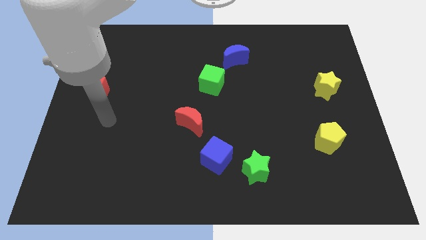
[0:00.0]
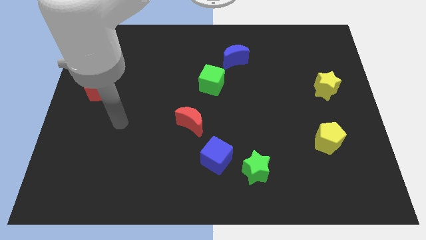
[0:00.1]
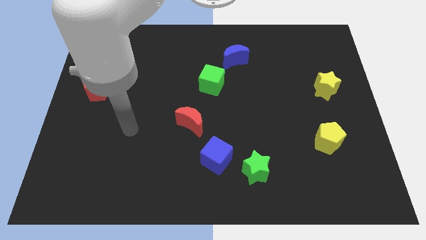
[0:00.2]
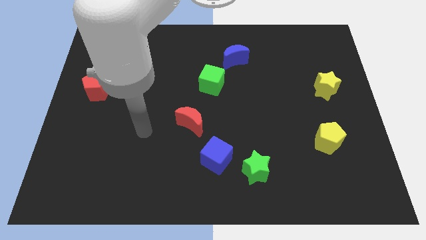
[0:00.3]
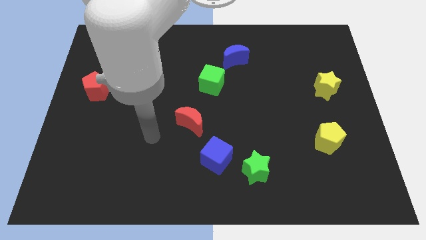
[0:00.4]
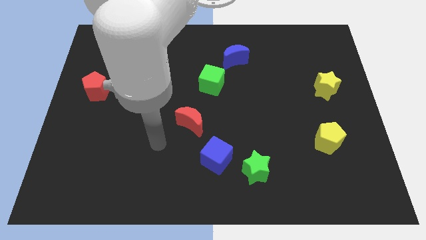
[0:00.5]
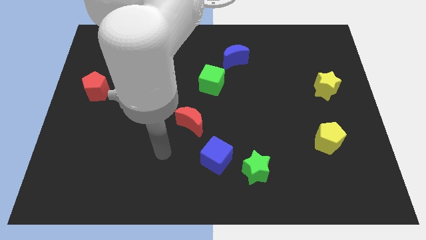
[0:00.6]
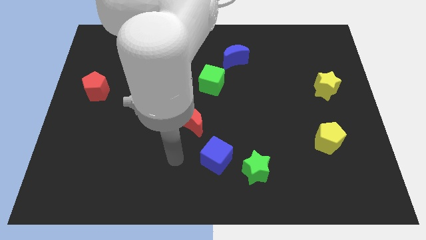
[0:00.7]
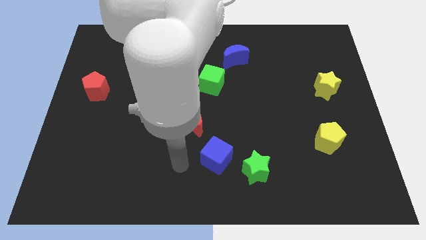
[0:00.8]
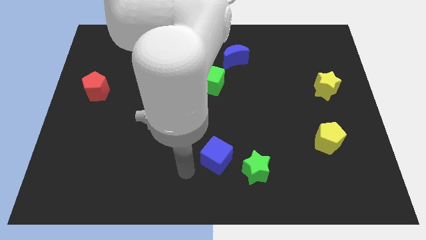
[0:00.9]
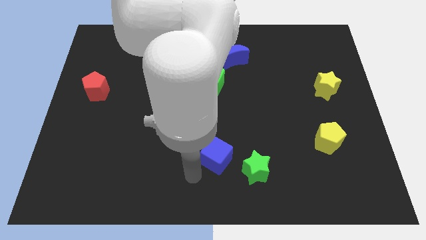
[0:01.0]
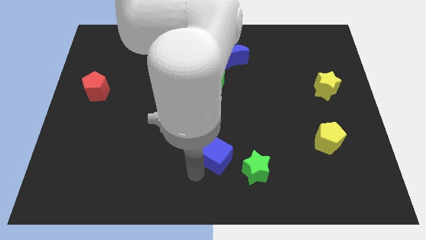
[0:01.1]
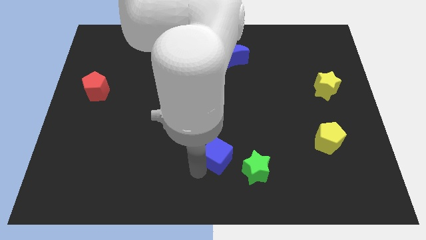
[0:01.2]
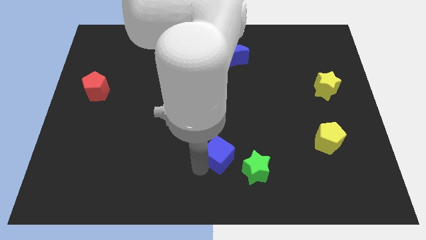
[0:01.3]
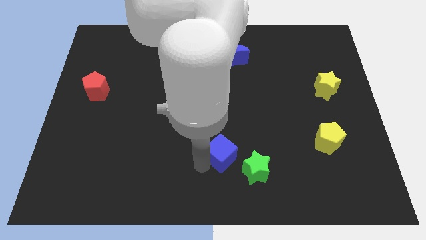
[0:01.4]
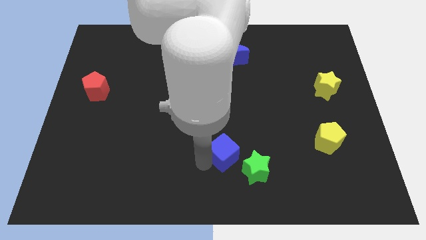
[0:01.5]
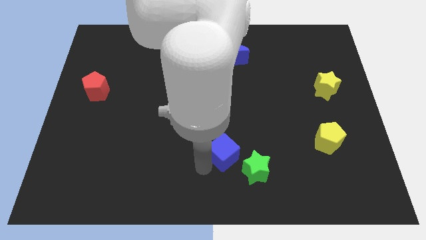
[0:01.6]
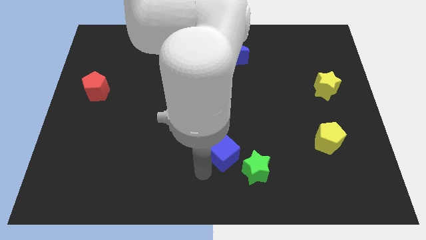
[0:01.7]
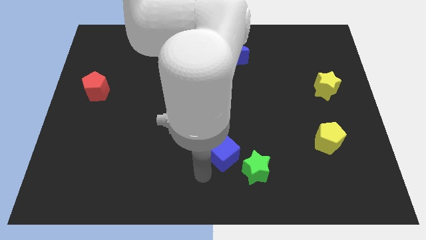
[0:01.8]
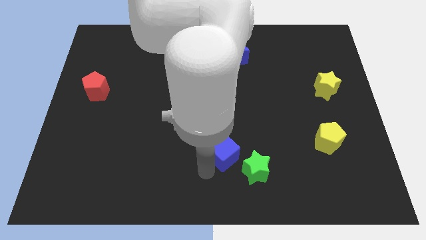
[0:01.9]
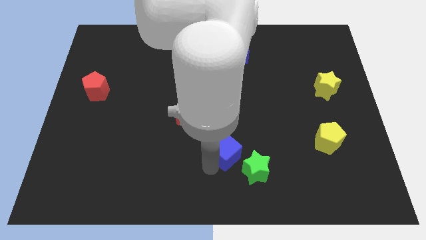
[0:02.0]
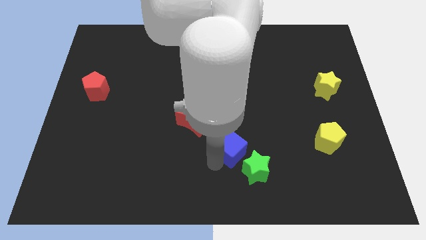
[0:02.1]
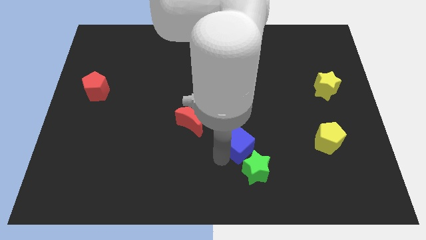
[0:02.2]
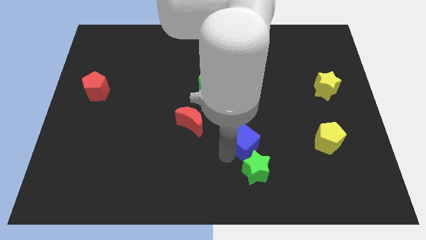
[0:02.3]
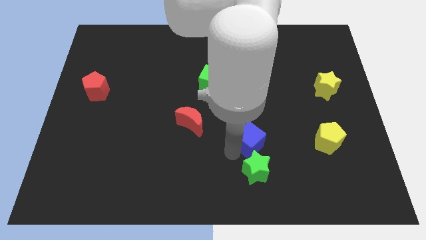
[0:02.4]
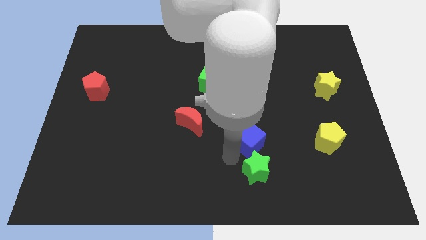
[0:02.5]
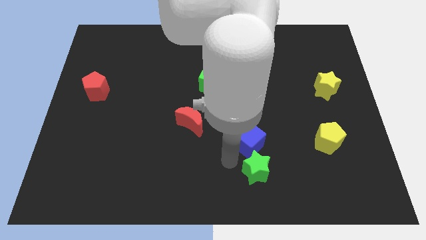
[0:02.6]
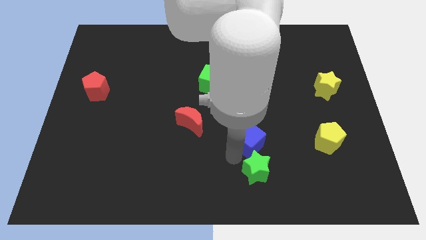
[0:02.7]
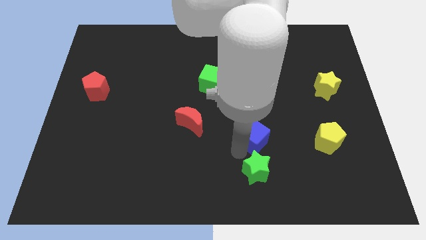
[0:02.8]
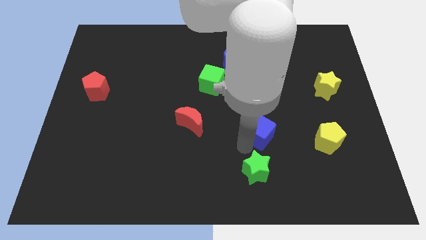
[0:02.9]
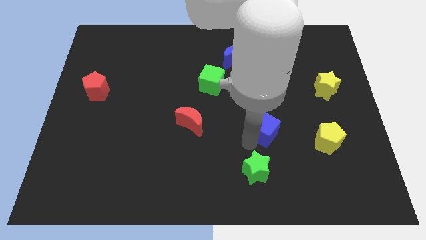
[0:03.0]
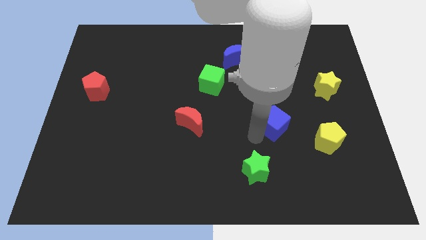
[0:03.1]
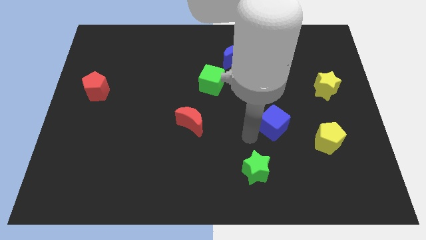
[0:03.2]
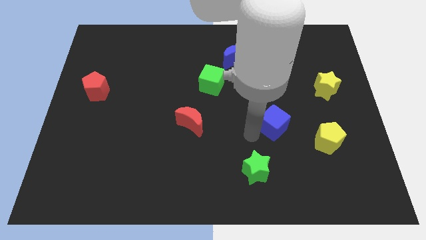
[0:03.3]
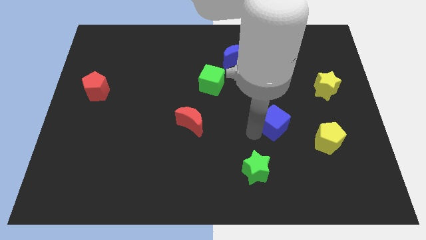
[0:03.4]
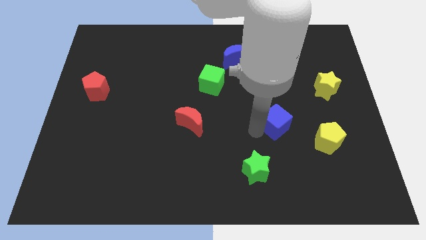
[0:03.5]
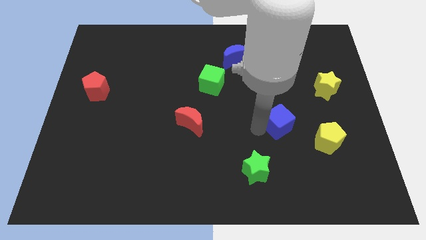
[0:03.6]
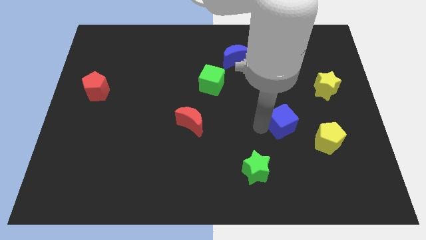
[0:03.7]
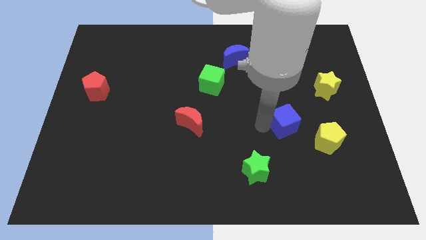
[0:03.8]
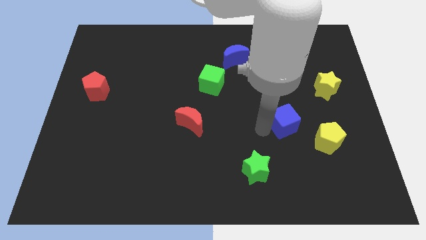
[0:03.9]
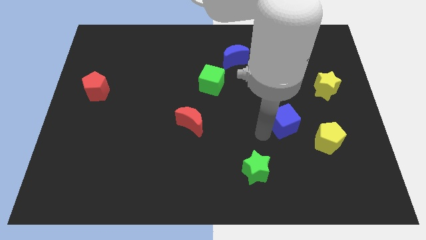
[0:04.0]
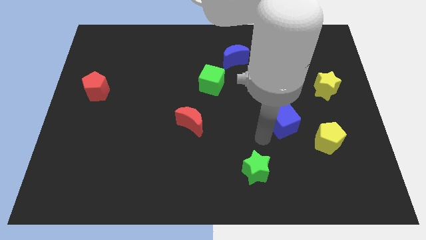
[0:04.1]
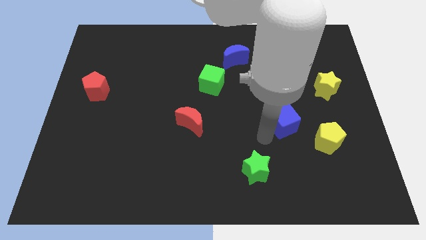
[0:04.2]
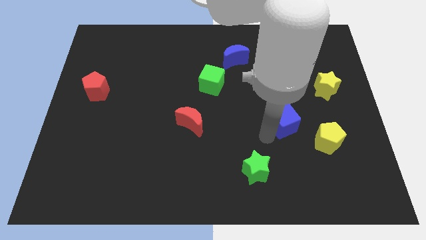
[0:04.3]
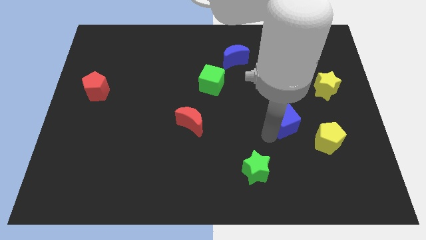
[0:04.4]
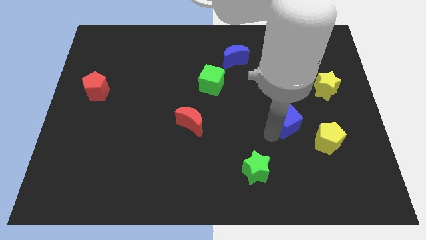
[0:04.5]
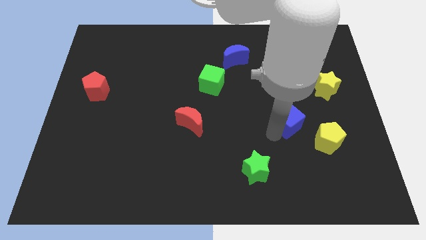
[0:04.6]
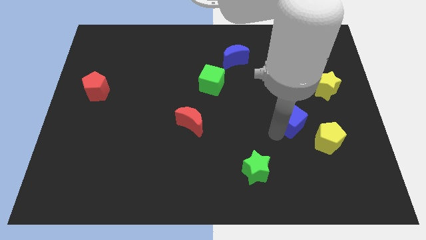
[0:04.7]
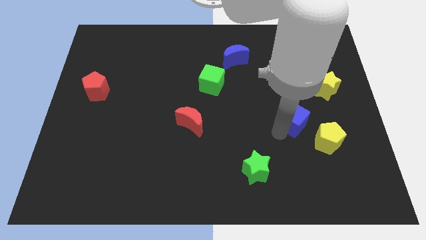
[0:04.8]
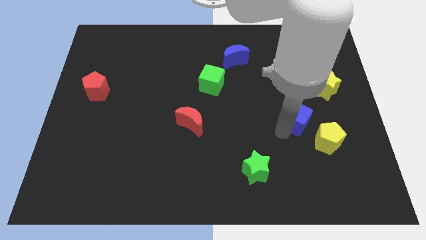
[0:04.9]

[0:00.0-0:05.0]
slide the blue cube to the bottom left of the yellow star

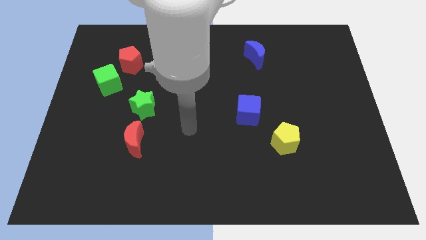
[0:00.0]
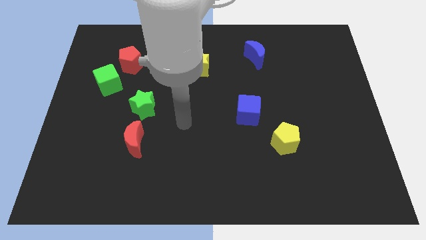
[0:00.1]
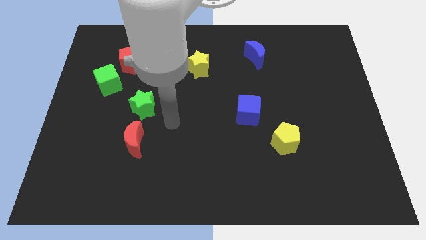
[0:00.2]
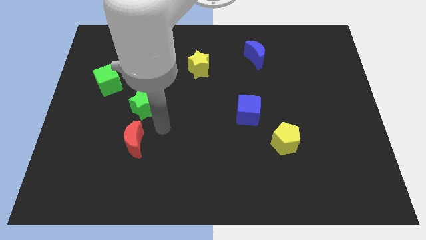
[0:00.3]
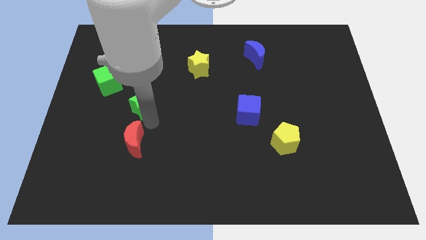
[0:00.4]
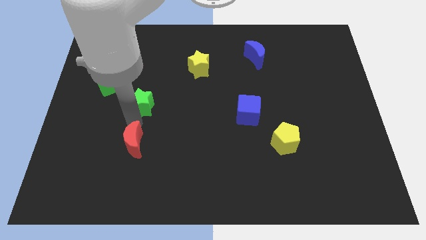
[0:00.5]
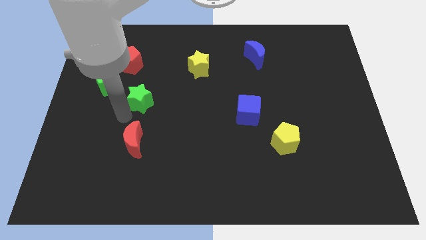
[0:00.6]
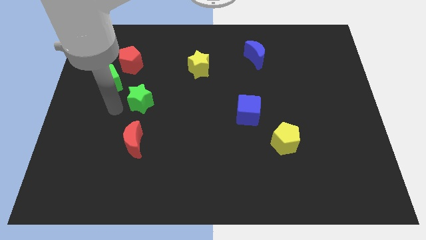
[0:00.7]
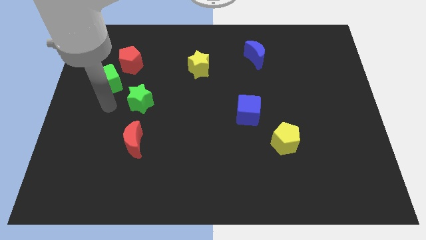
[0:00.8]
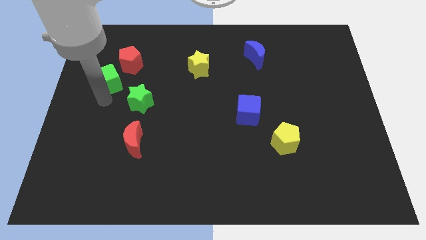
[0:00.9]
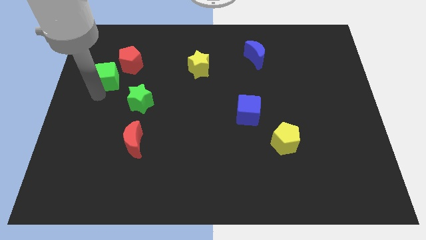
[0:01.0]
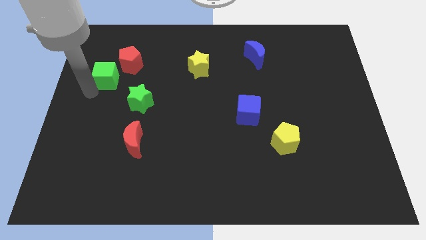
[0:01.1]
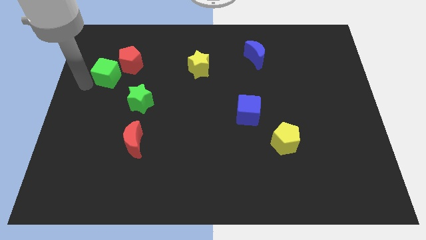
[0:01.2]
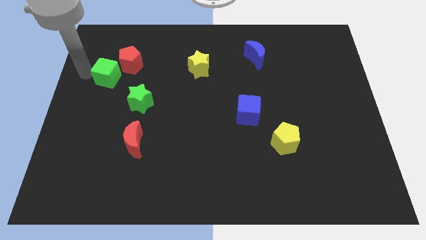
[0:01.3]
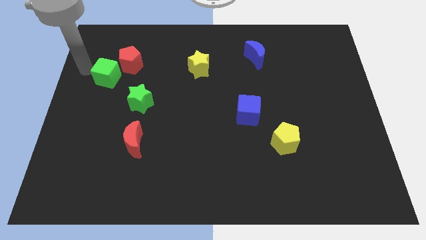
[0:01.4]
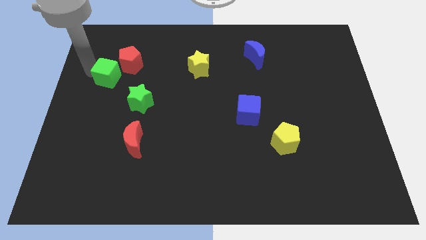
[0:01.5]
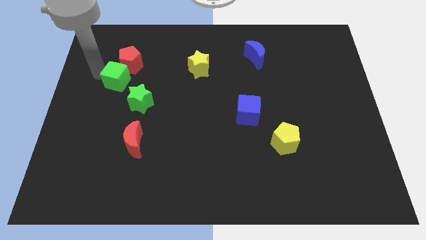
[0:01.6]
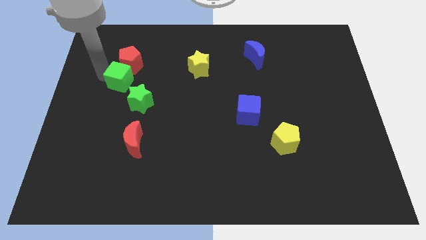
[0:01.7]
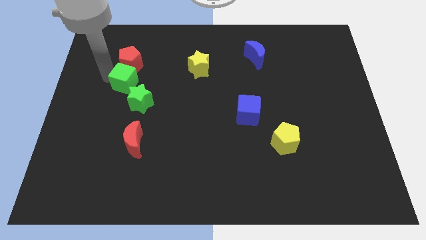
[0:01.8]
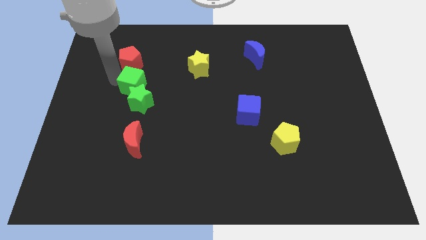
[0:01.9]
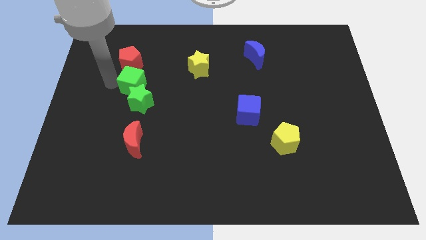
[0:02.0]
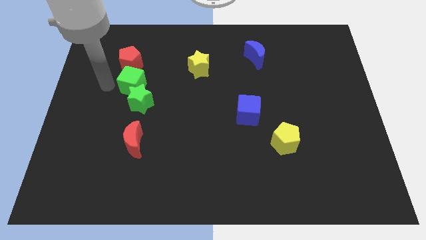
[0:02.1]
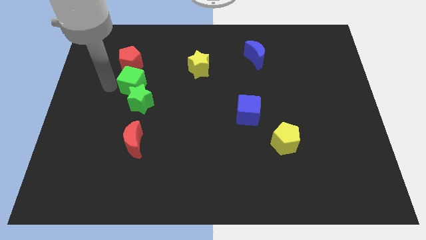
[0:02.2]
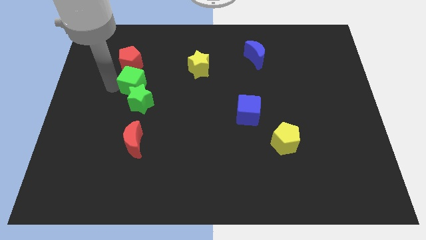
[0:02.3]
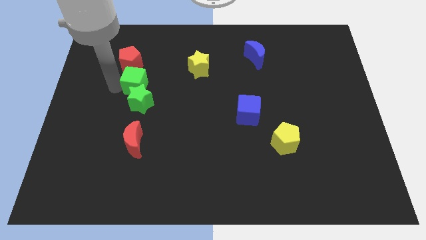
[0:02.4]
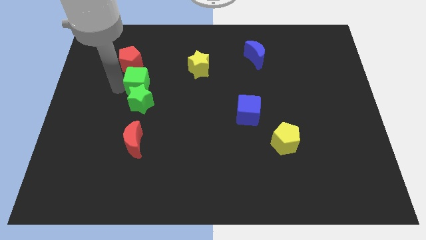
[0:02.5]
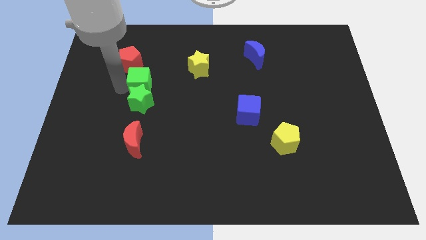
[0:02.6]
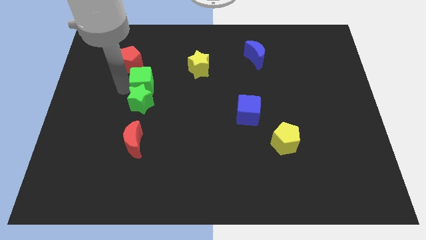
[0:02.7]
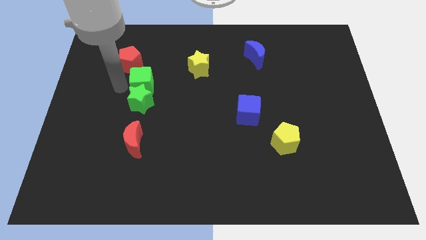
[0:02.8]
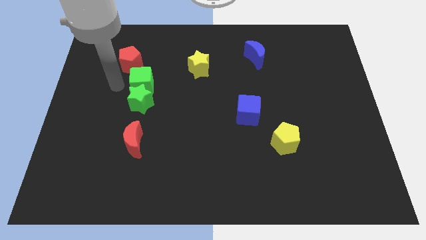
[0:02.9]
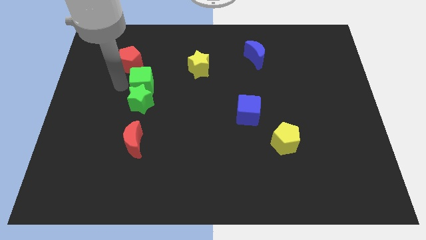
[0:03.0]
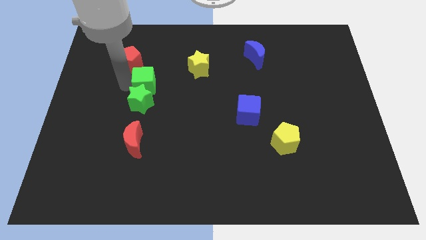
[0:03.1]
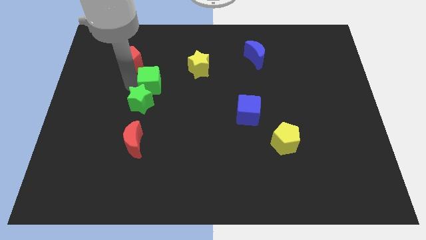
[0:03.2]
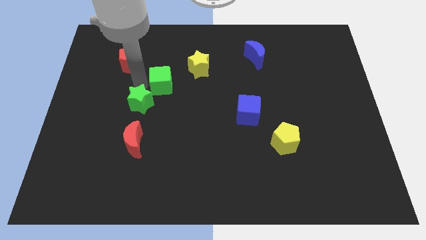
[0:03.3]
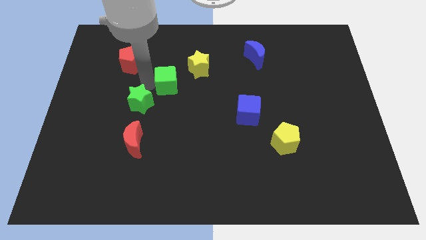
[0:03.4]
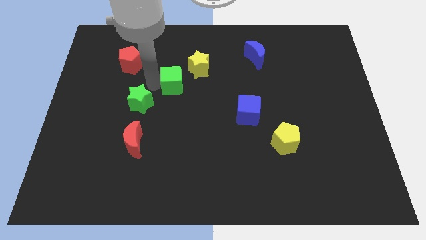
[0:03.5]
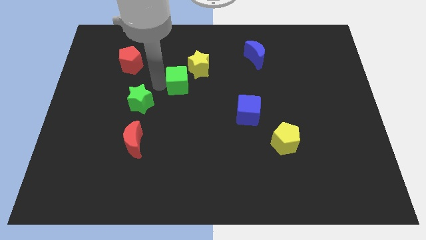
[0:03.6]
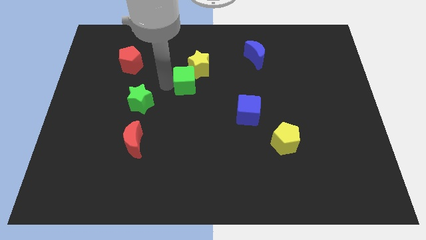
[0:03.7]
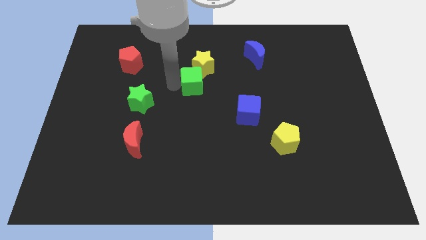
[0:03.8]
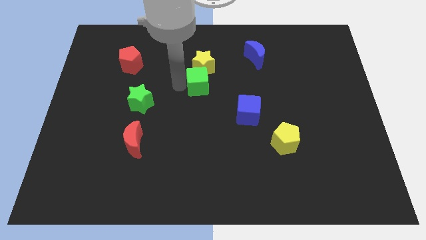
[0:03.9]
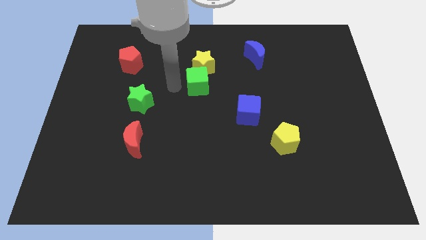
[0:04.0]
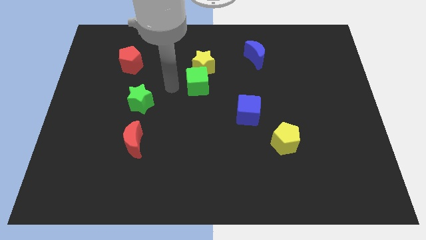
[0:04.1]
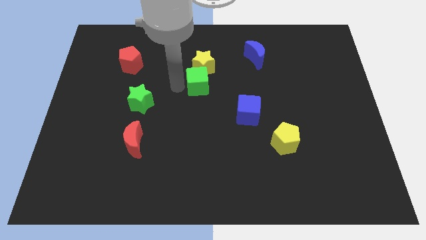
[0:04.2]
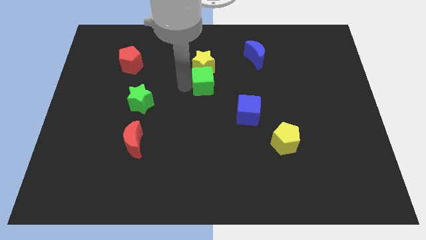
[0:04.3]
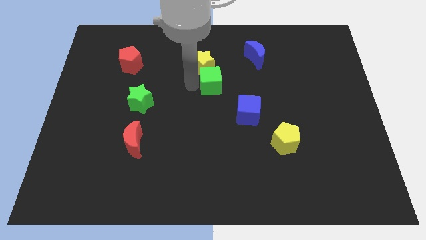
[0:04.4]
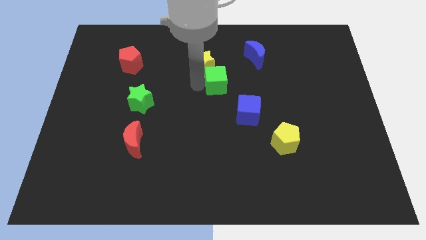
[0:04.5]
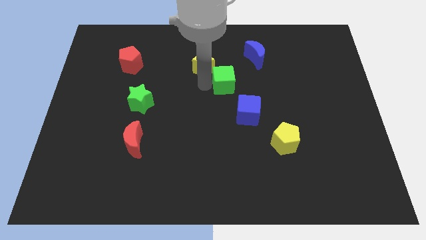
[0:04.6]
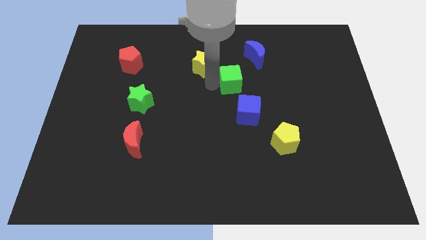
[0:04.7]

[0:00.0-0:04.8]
slide the green cube to the top of the blue cube
